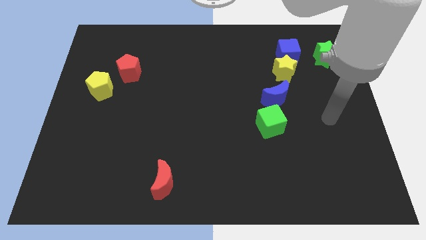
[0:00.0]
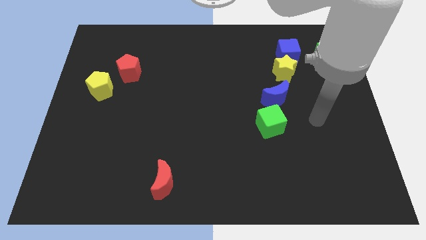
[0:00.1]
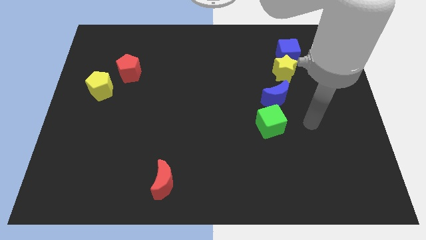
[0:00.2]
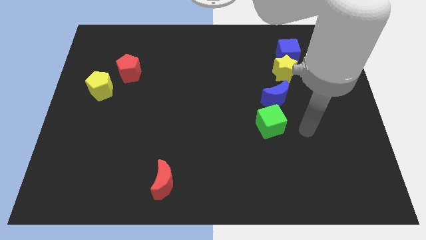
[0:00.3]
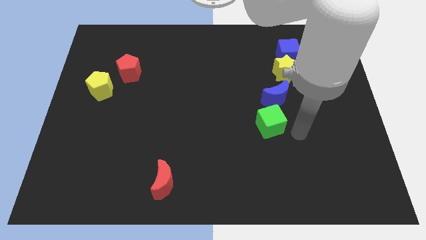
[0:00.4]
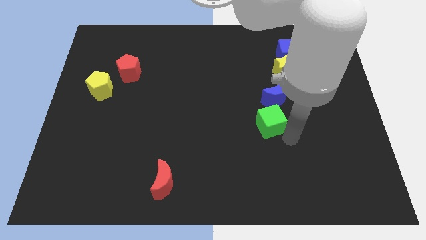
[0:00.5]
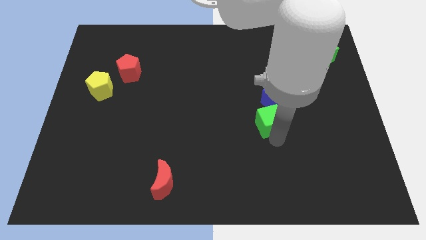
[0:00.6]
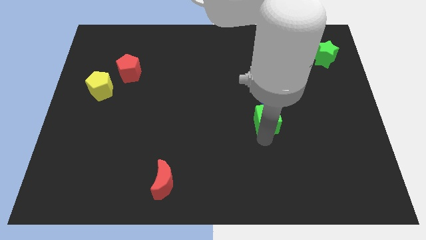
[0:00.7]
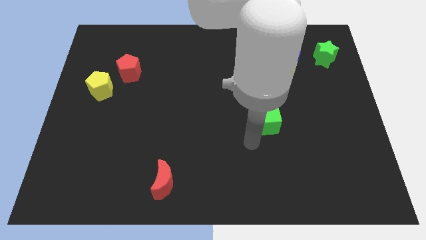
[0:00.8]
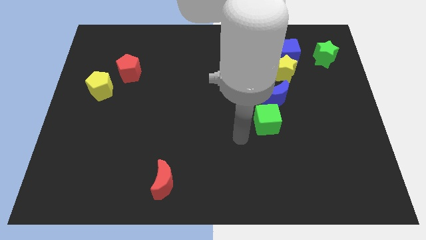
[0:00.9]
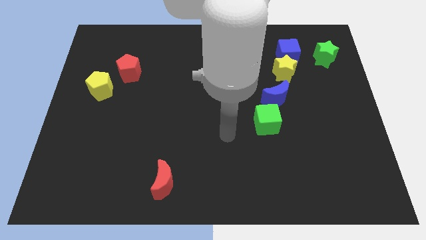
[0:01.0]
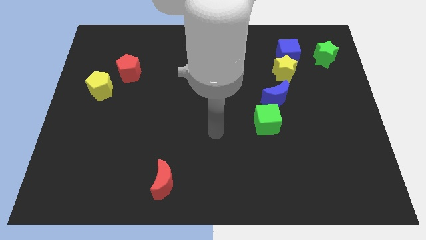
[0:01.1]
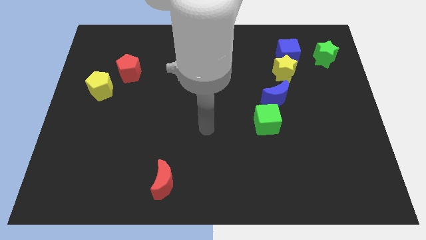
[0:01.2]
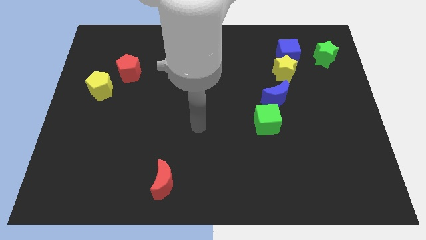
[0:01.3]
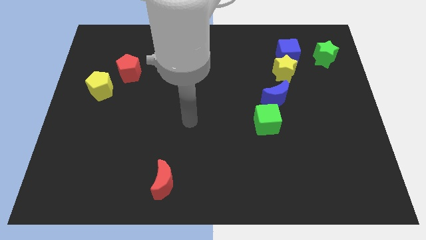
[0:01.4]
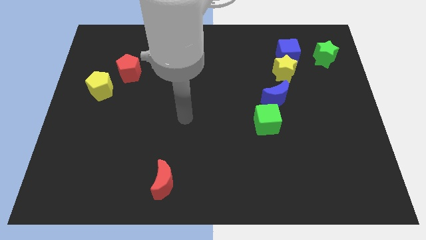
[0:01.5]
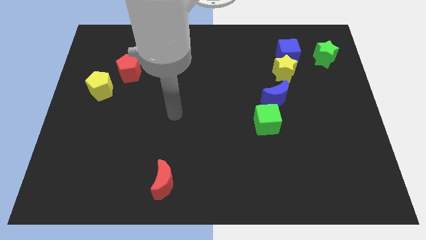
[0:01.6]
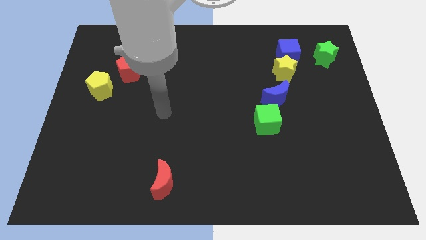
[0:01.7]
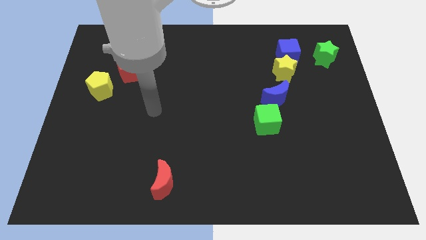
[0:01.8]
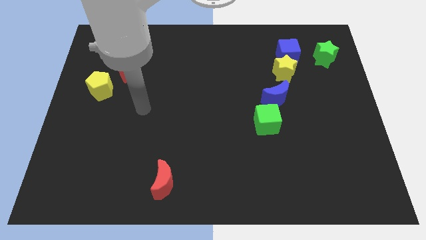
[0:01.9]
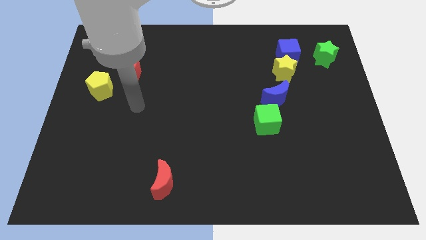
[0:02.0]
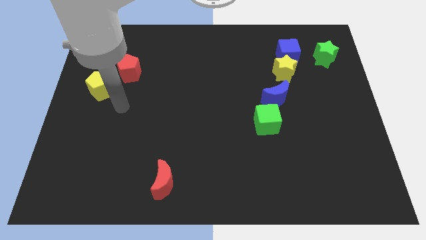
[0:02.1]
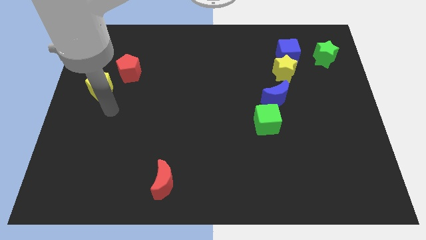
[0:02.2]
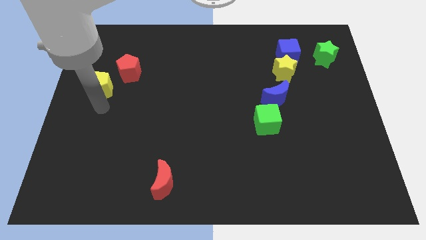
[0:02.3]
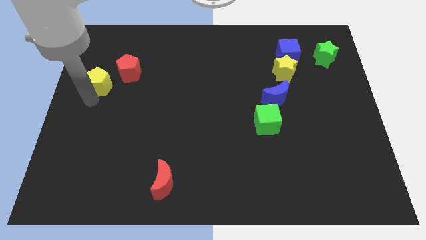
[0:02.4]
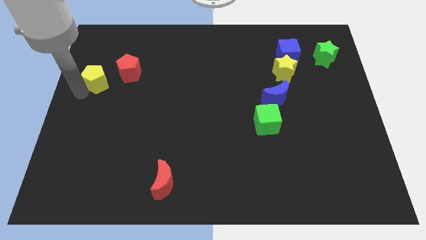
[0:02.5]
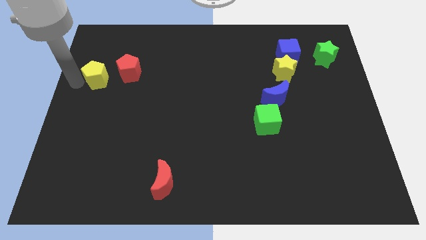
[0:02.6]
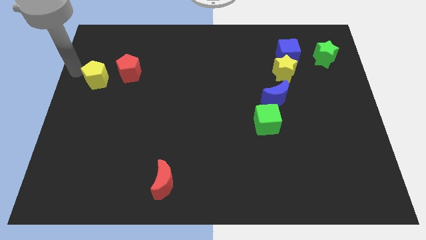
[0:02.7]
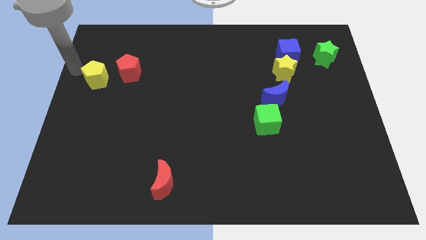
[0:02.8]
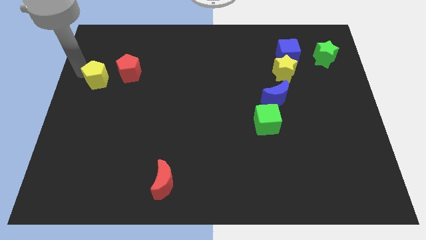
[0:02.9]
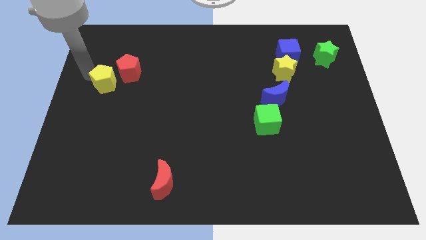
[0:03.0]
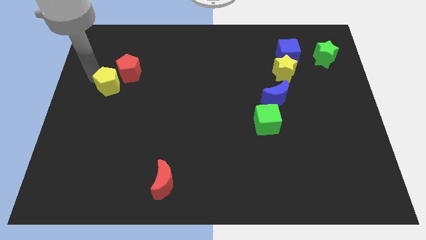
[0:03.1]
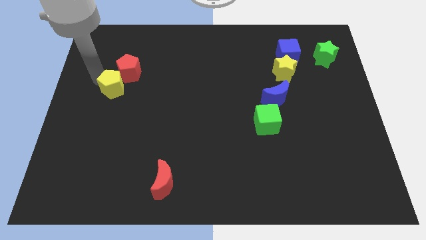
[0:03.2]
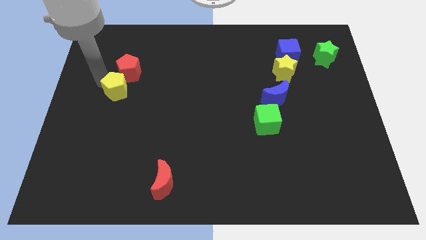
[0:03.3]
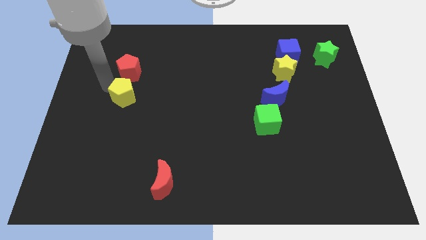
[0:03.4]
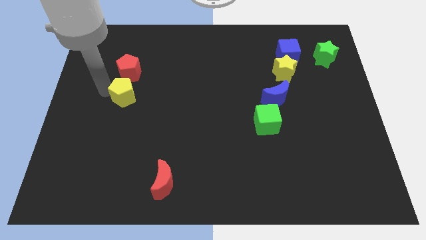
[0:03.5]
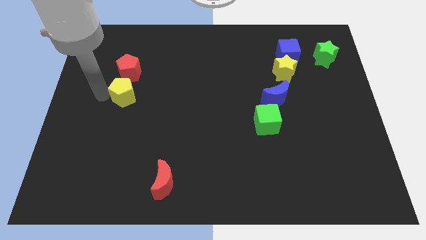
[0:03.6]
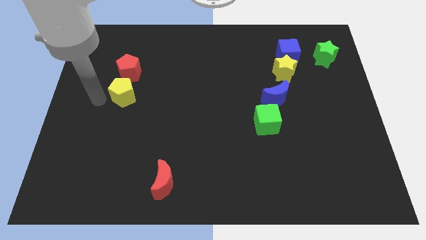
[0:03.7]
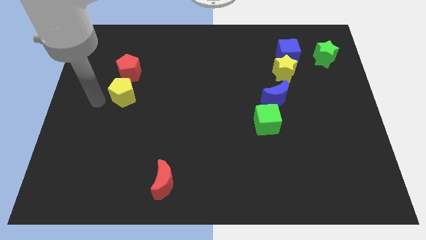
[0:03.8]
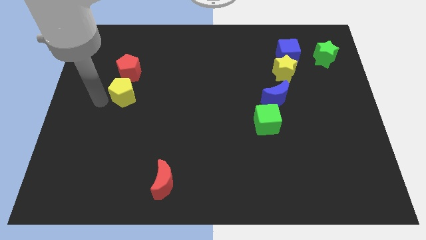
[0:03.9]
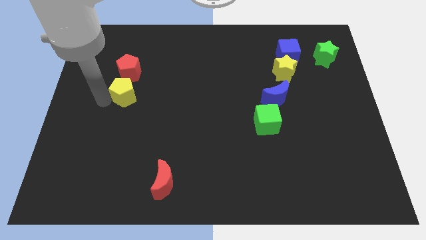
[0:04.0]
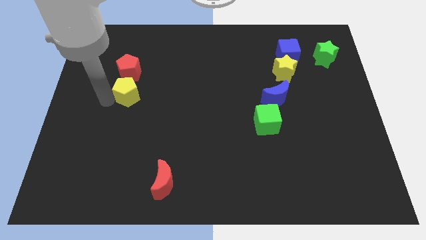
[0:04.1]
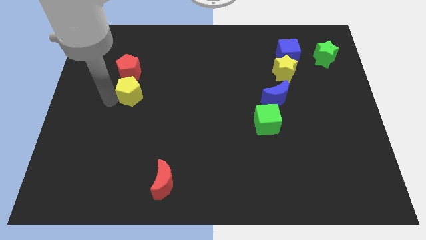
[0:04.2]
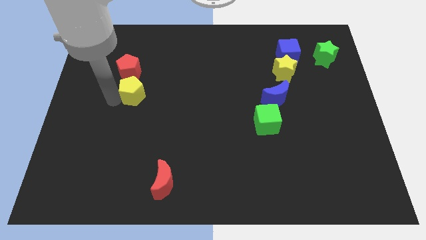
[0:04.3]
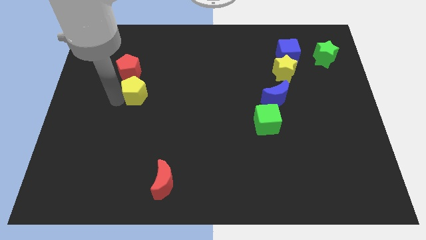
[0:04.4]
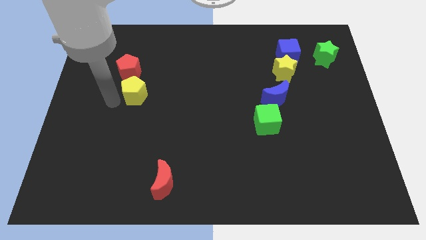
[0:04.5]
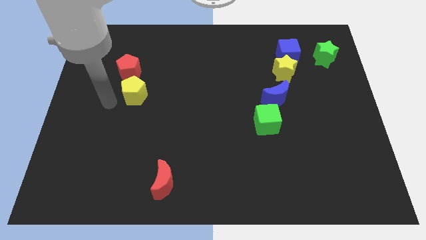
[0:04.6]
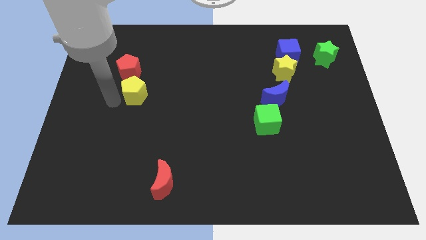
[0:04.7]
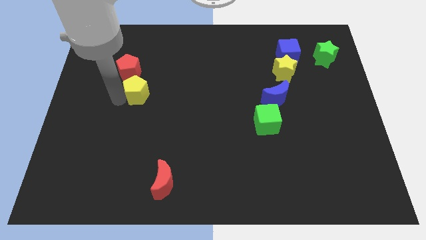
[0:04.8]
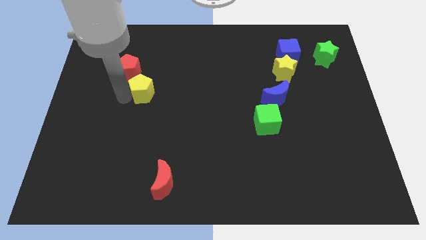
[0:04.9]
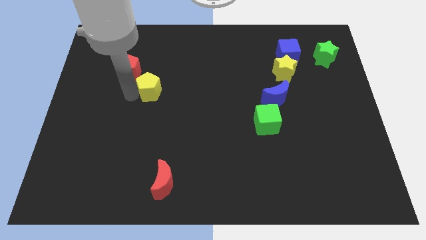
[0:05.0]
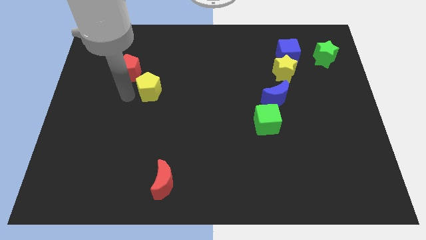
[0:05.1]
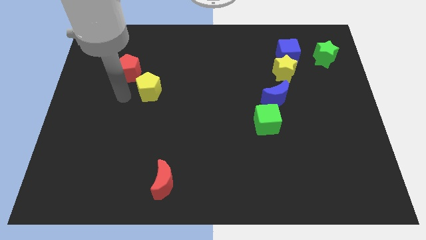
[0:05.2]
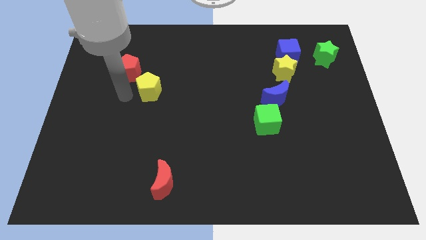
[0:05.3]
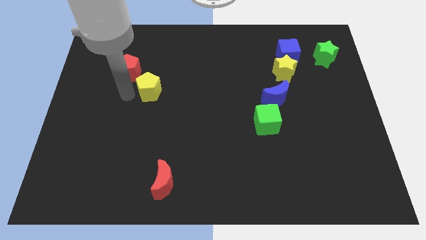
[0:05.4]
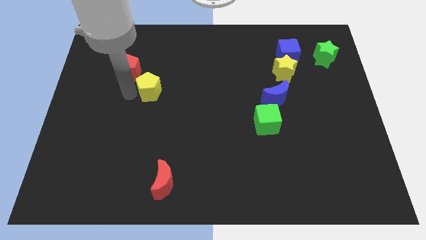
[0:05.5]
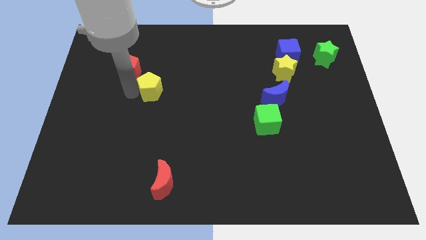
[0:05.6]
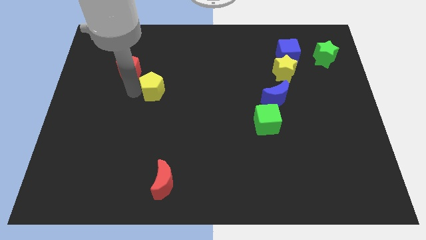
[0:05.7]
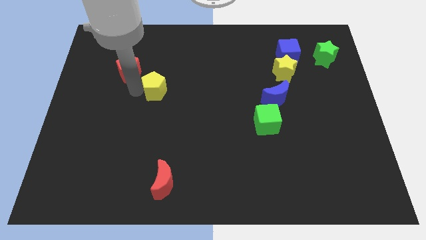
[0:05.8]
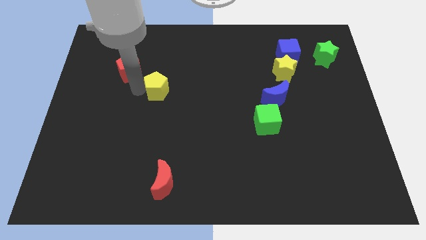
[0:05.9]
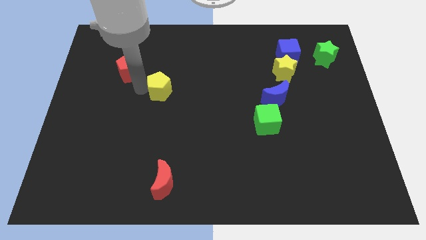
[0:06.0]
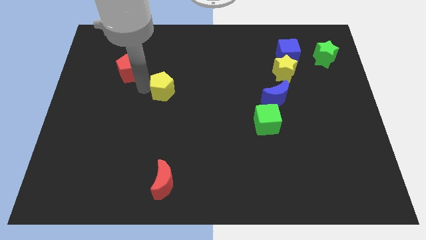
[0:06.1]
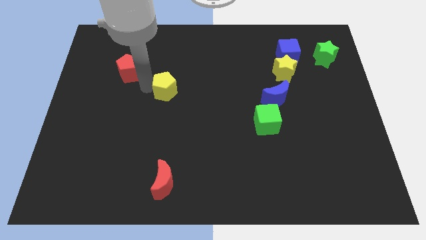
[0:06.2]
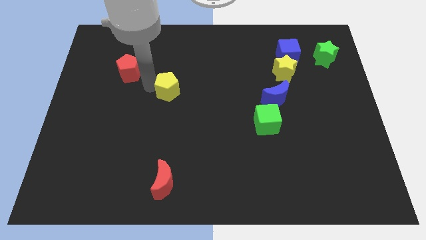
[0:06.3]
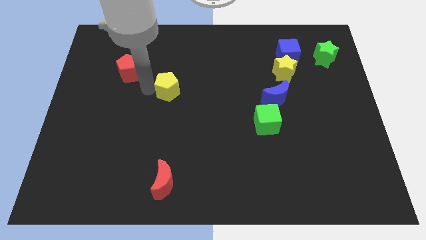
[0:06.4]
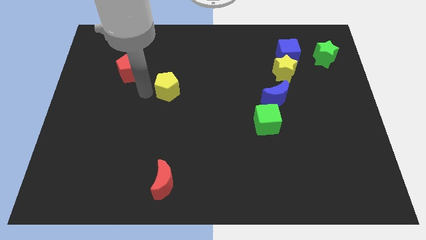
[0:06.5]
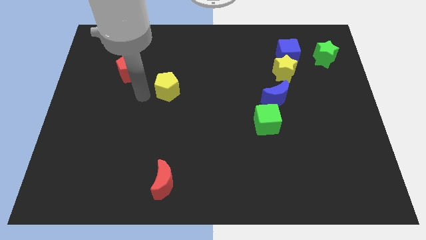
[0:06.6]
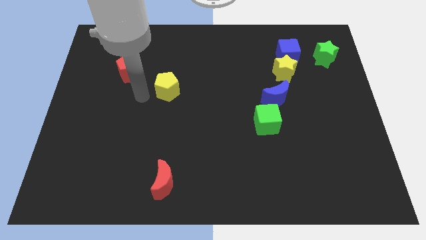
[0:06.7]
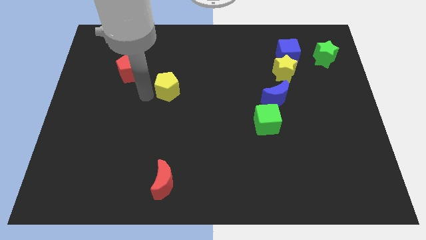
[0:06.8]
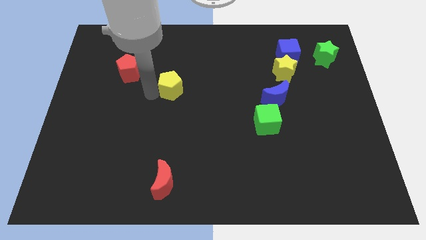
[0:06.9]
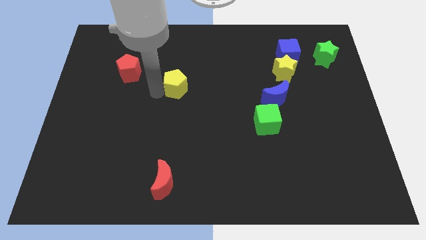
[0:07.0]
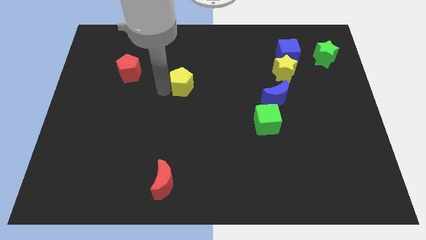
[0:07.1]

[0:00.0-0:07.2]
push the yellow pentagon right

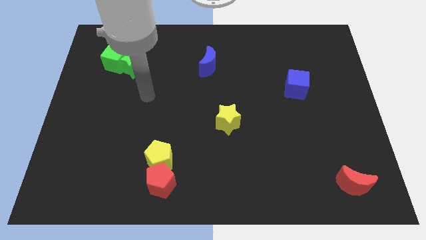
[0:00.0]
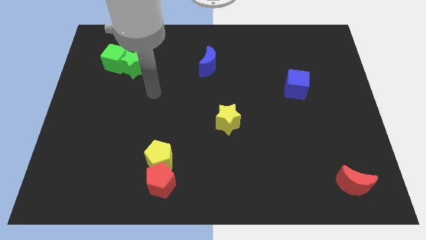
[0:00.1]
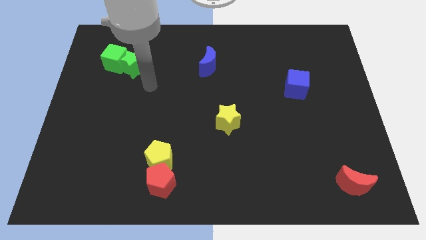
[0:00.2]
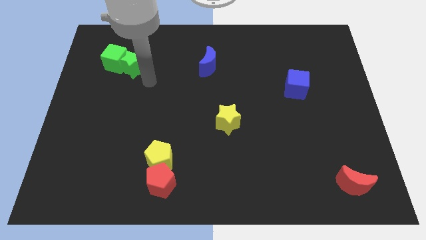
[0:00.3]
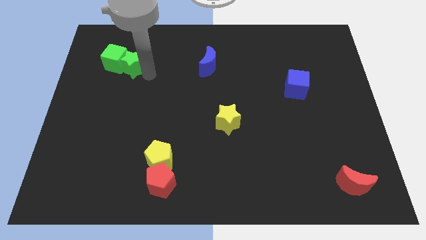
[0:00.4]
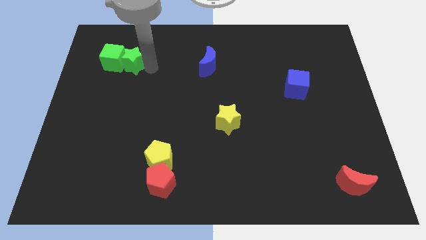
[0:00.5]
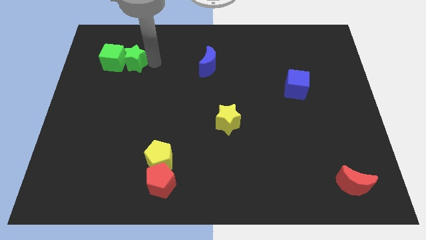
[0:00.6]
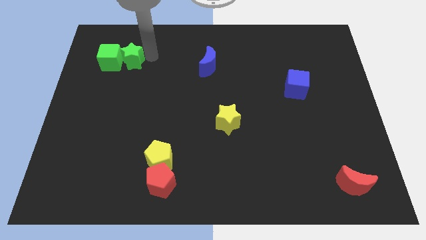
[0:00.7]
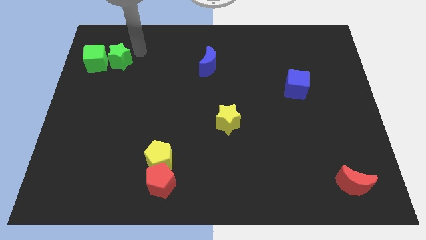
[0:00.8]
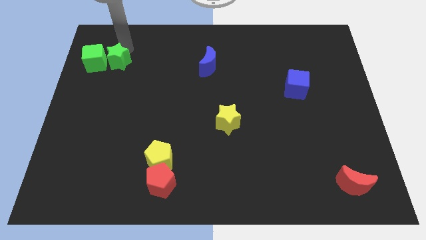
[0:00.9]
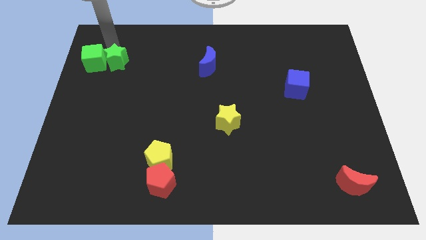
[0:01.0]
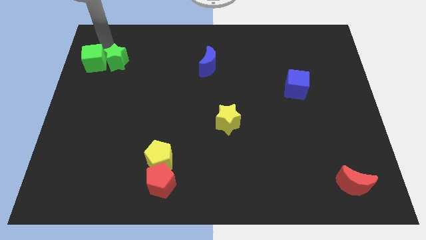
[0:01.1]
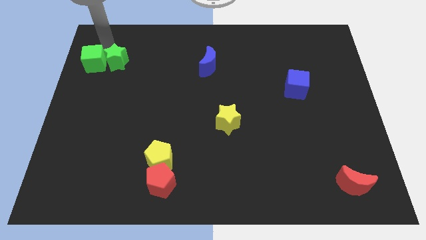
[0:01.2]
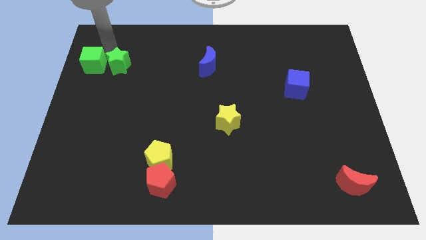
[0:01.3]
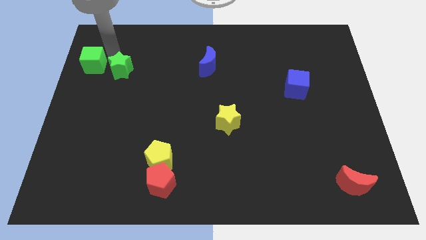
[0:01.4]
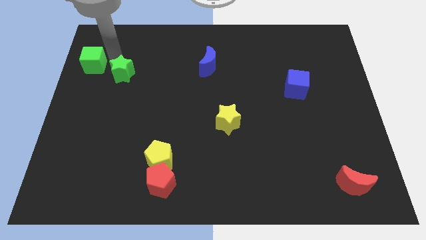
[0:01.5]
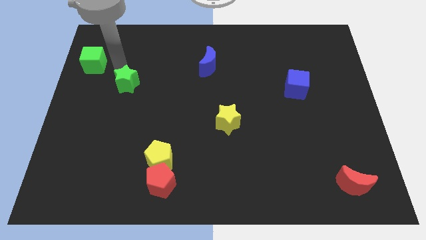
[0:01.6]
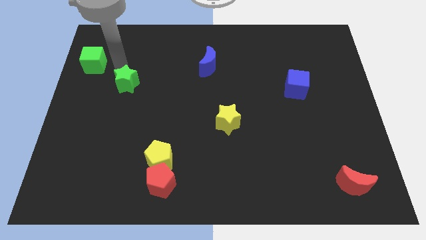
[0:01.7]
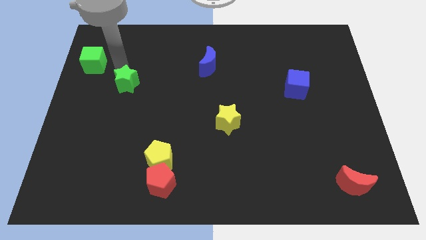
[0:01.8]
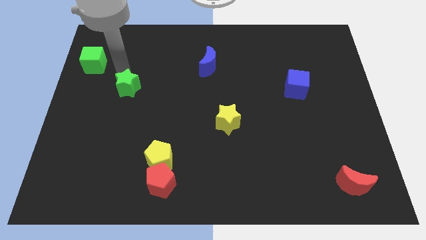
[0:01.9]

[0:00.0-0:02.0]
push the green star down a little bit
